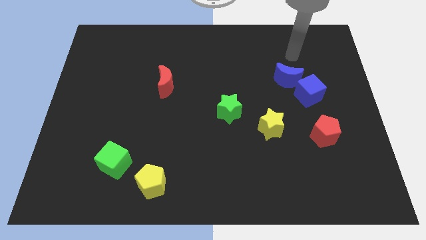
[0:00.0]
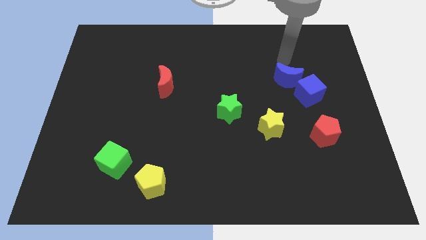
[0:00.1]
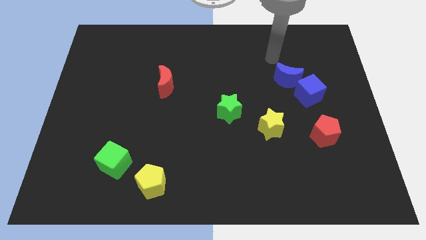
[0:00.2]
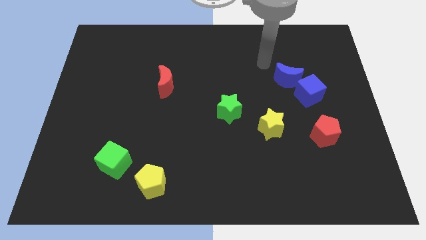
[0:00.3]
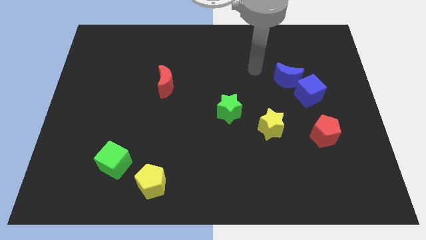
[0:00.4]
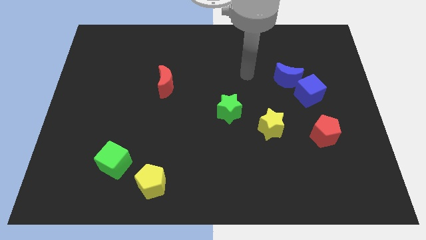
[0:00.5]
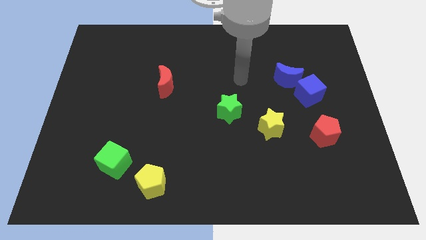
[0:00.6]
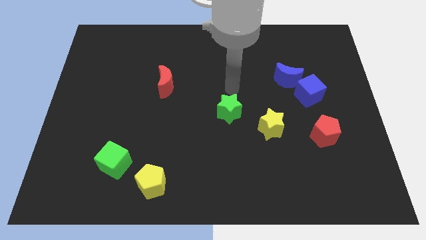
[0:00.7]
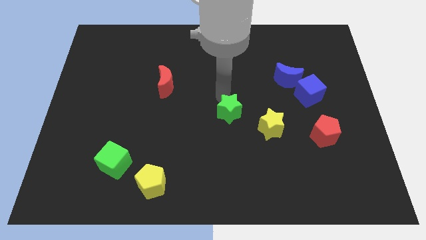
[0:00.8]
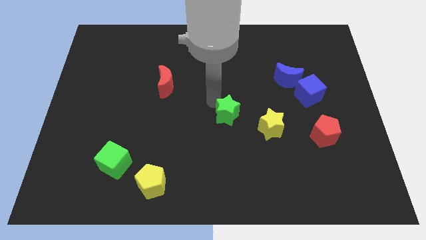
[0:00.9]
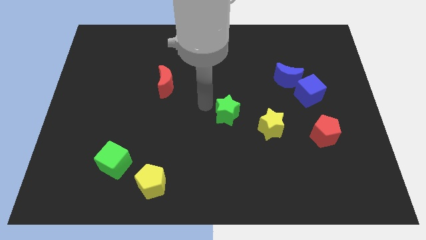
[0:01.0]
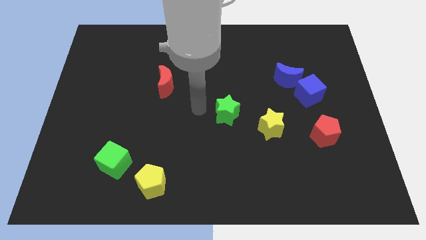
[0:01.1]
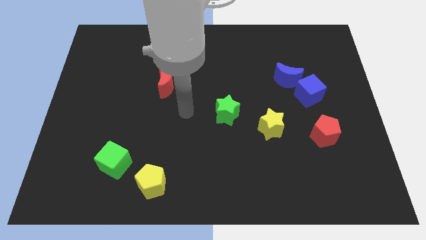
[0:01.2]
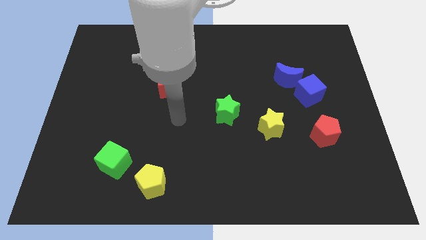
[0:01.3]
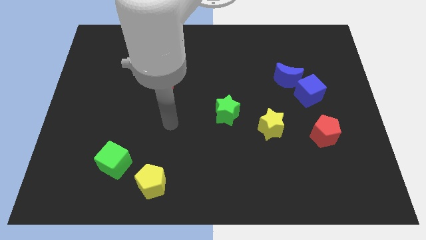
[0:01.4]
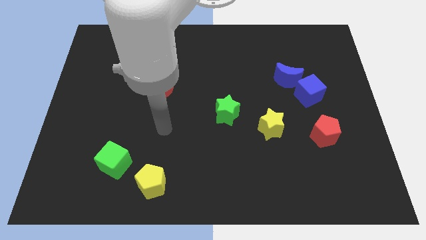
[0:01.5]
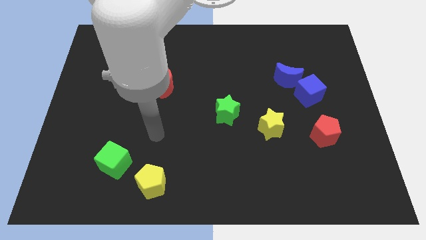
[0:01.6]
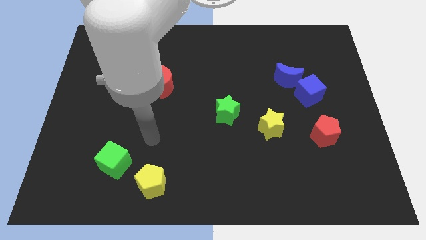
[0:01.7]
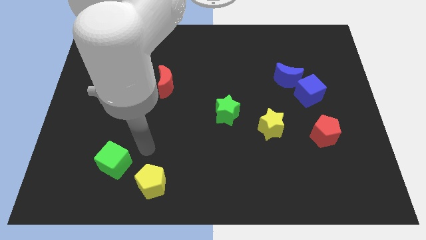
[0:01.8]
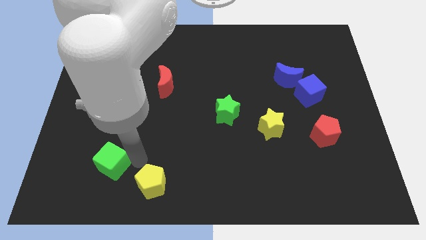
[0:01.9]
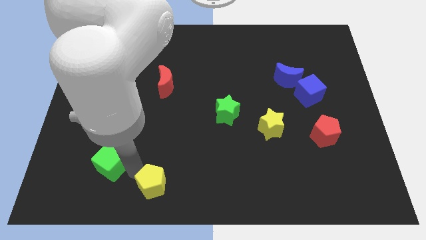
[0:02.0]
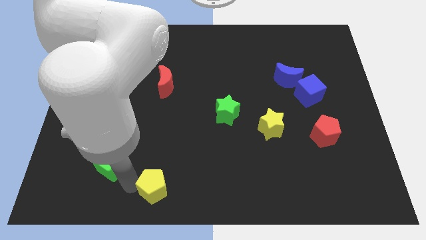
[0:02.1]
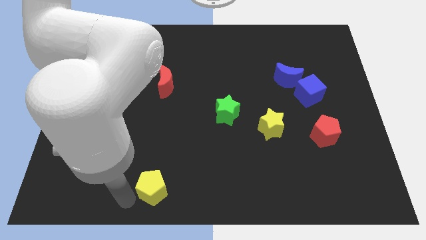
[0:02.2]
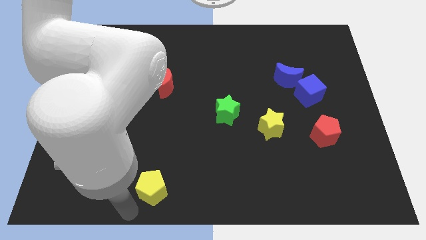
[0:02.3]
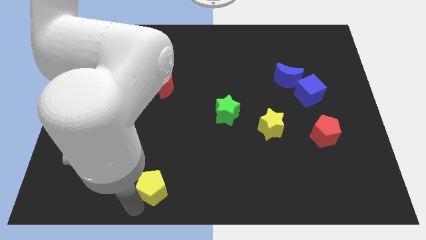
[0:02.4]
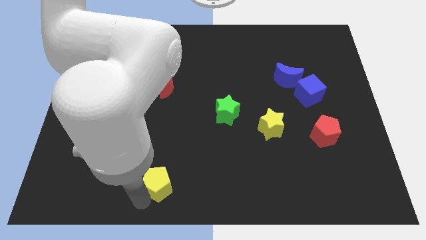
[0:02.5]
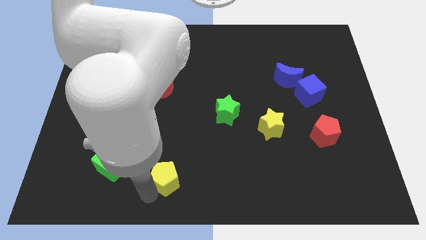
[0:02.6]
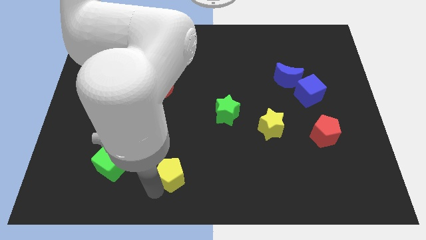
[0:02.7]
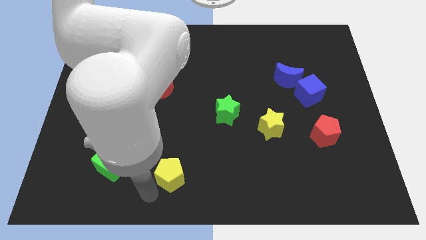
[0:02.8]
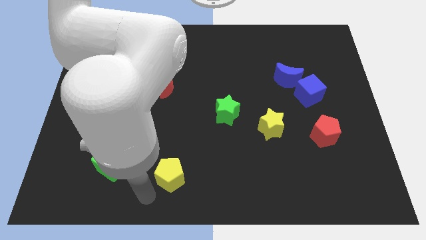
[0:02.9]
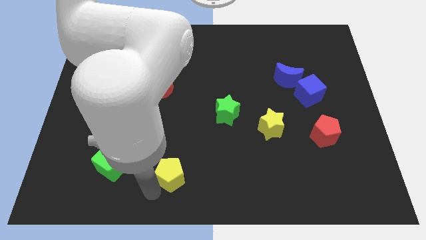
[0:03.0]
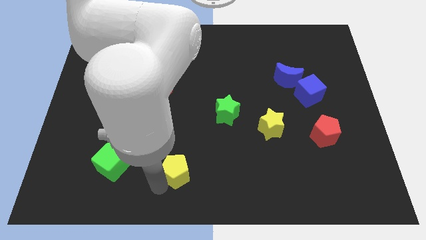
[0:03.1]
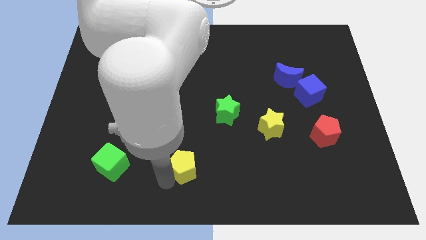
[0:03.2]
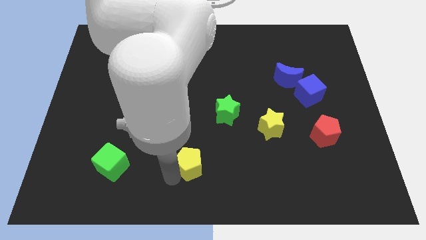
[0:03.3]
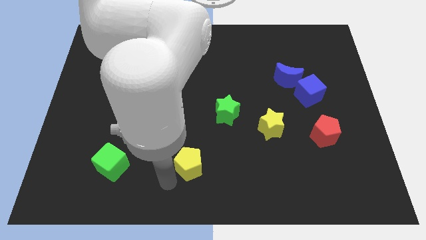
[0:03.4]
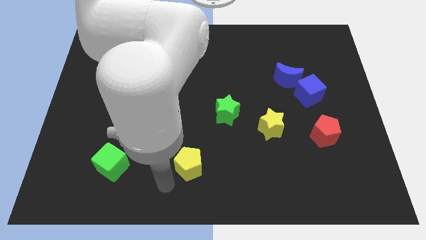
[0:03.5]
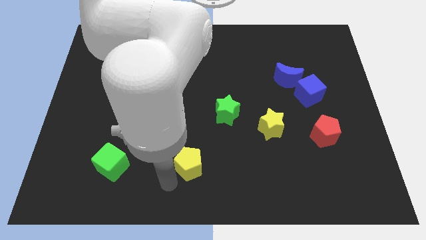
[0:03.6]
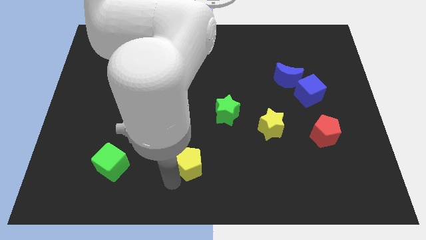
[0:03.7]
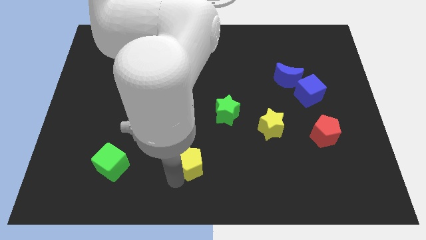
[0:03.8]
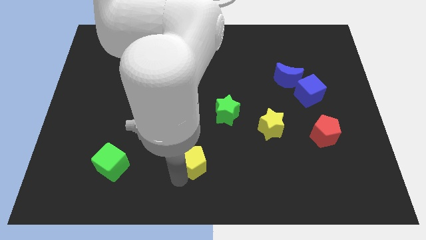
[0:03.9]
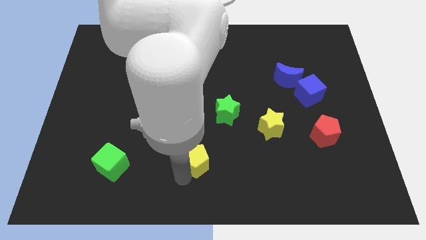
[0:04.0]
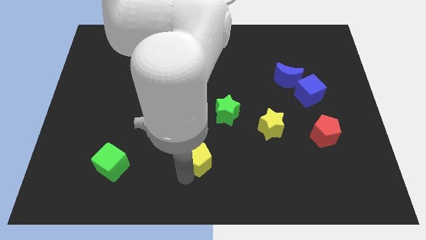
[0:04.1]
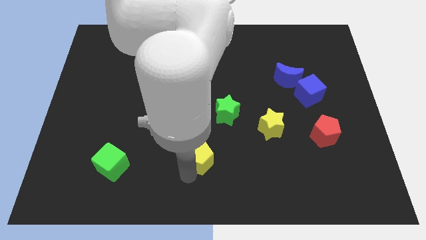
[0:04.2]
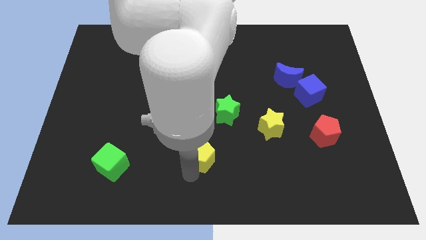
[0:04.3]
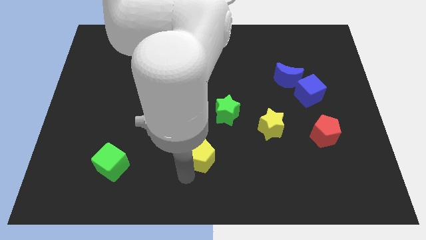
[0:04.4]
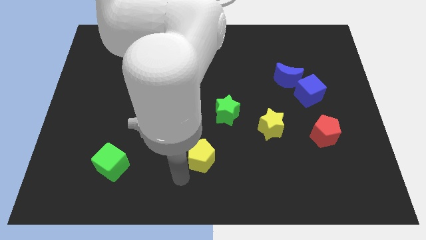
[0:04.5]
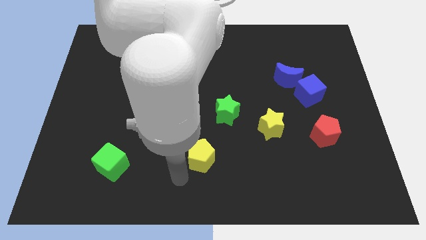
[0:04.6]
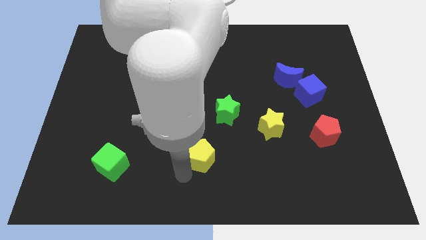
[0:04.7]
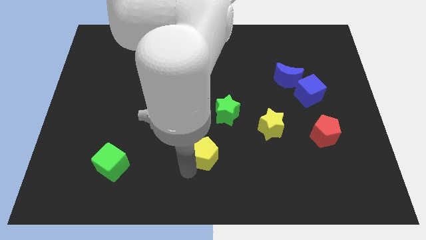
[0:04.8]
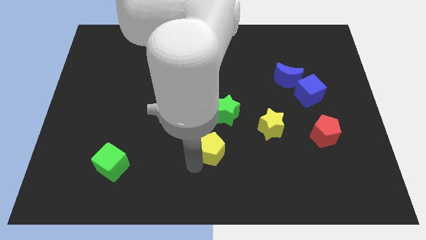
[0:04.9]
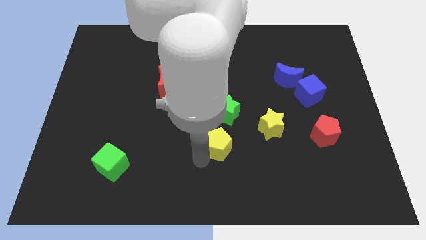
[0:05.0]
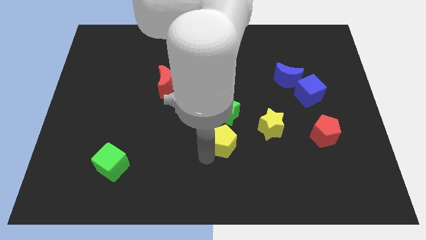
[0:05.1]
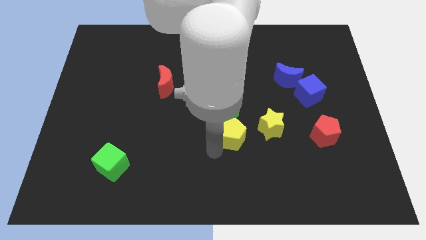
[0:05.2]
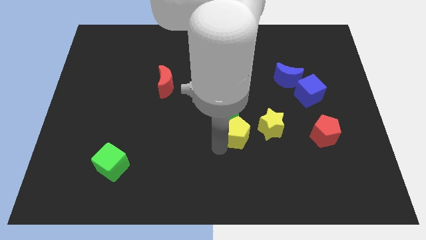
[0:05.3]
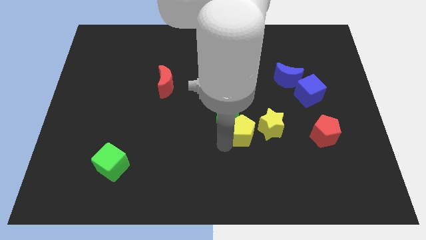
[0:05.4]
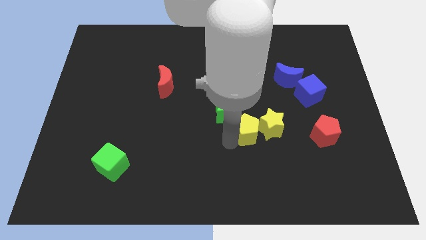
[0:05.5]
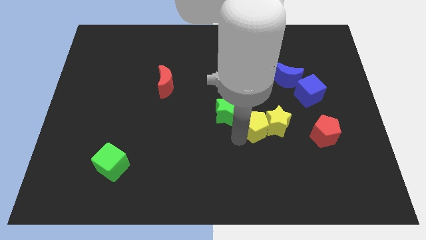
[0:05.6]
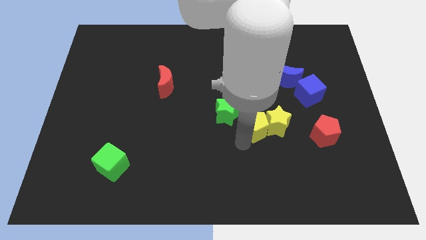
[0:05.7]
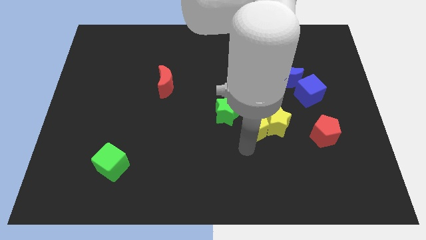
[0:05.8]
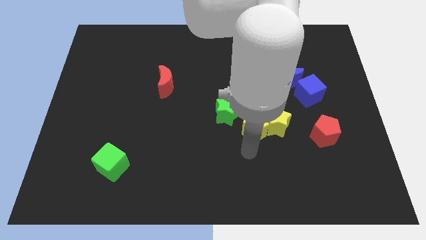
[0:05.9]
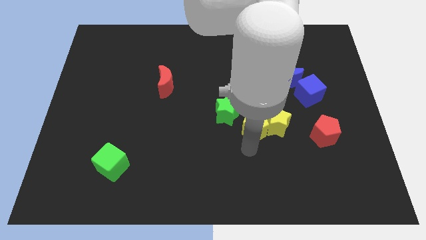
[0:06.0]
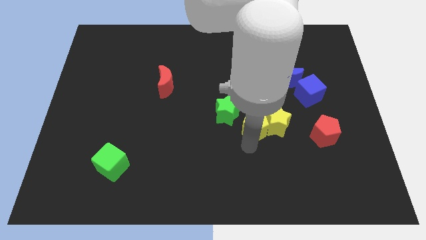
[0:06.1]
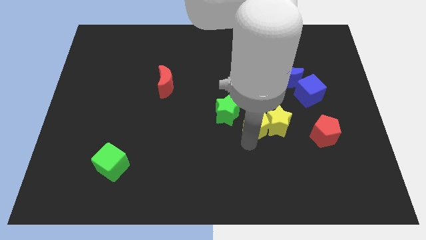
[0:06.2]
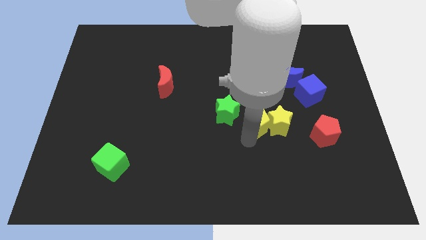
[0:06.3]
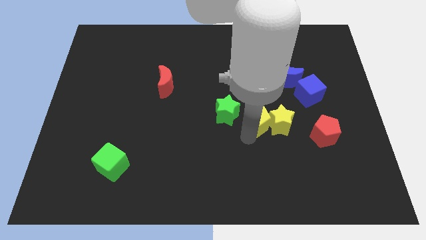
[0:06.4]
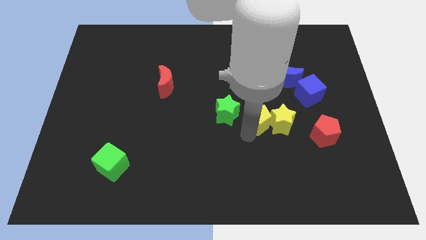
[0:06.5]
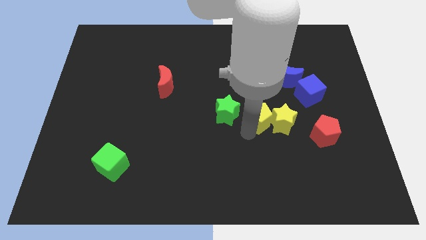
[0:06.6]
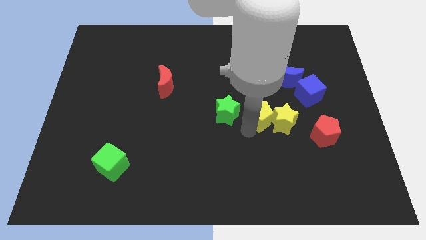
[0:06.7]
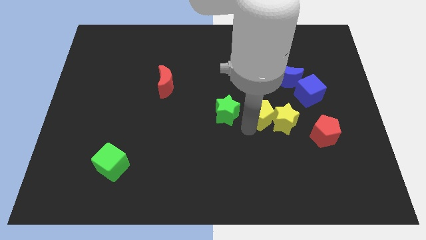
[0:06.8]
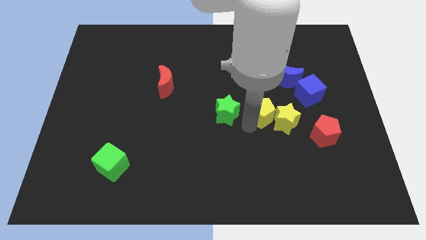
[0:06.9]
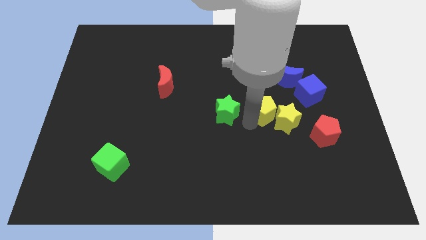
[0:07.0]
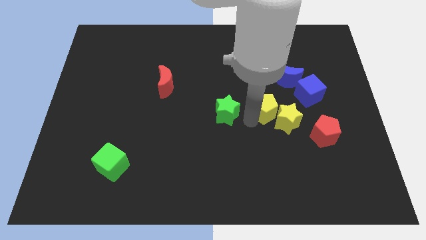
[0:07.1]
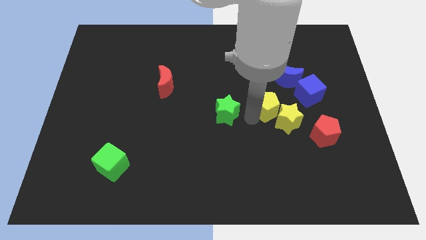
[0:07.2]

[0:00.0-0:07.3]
push the yellow pentagon just left of the blue cube
